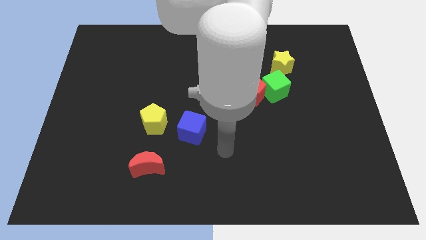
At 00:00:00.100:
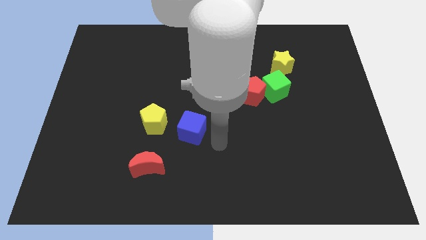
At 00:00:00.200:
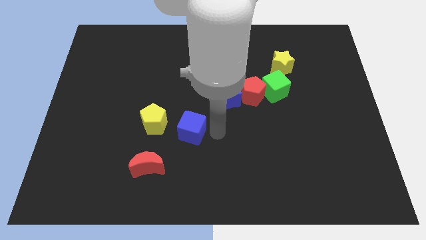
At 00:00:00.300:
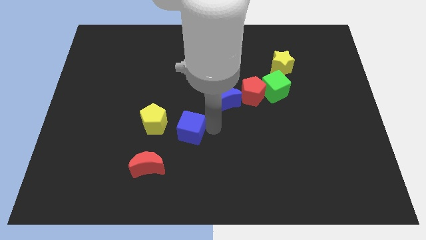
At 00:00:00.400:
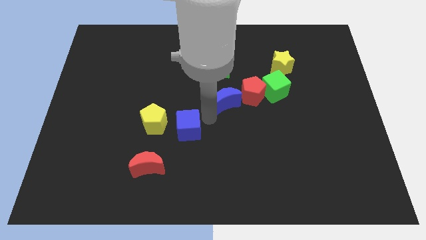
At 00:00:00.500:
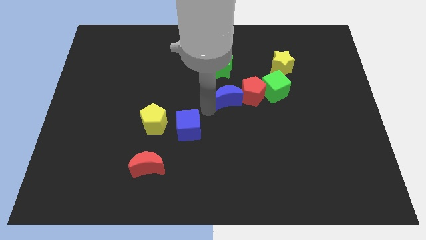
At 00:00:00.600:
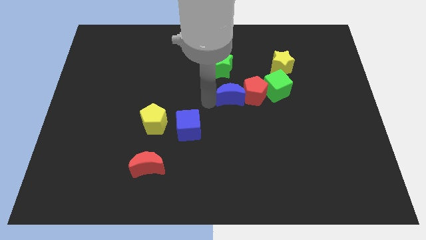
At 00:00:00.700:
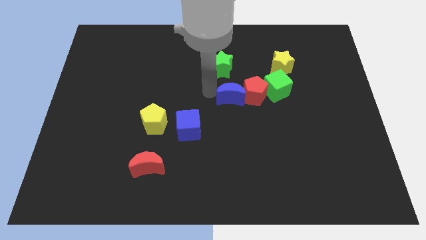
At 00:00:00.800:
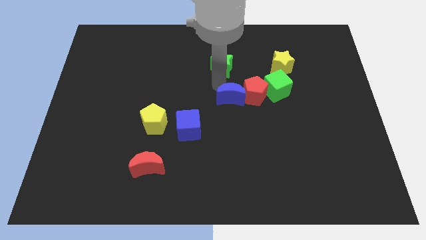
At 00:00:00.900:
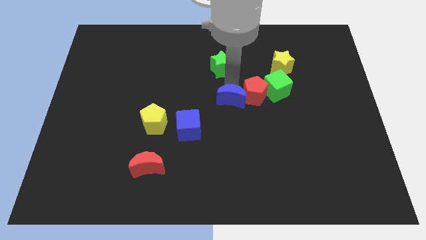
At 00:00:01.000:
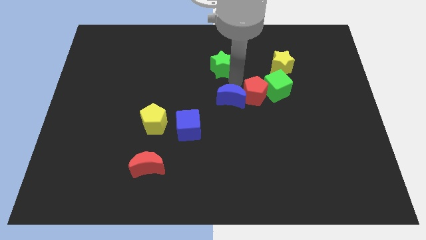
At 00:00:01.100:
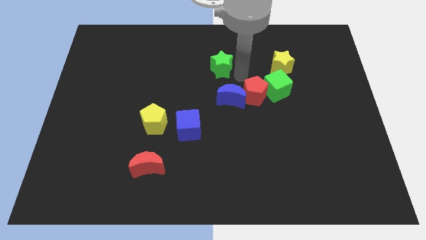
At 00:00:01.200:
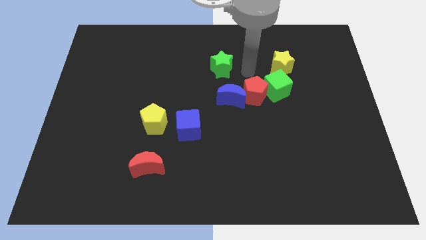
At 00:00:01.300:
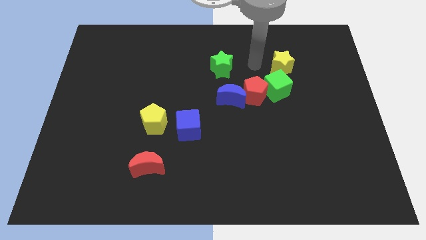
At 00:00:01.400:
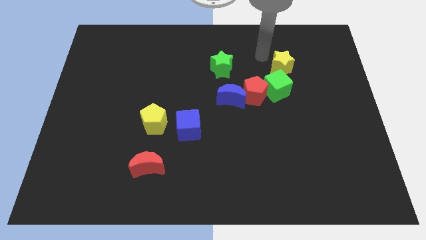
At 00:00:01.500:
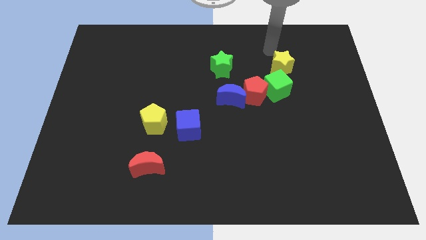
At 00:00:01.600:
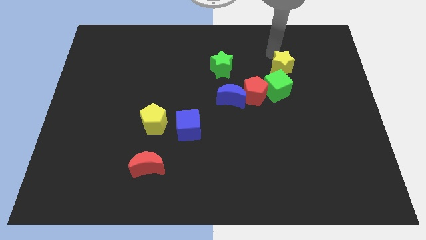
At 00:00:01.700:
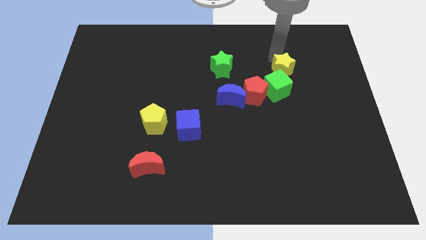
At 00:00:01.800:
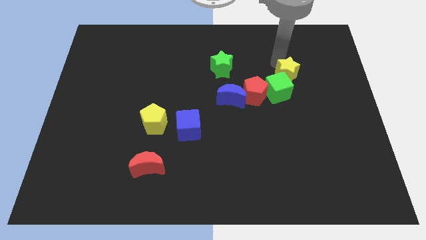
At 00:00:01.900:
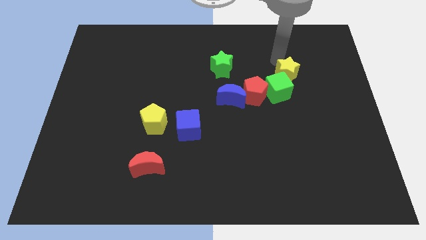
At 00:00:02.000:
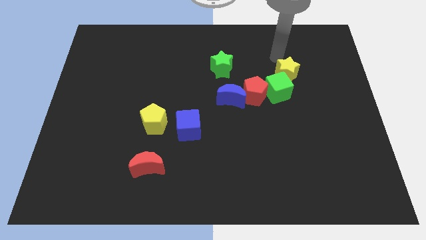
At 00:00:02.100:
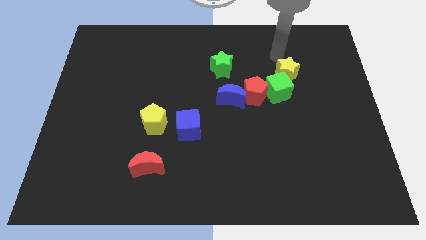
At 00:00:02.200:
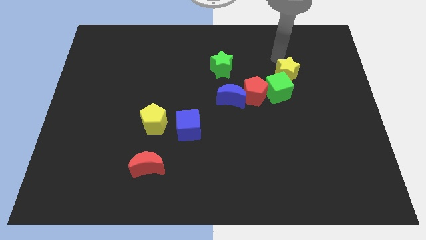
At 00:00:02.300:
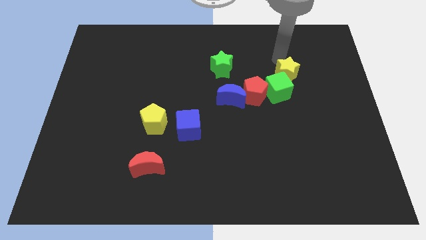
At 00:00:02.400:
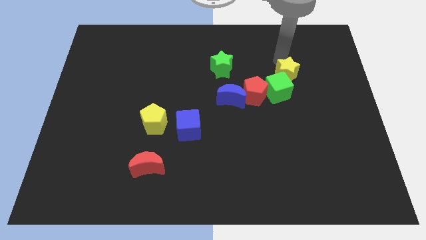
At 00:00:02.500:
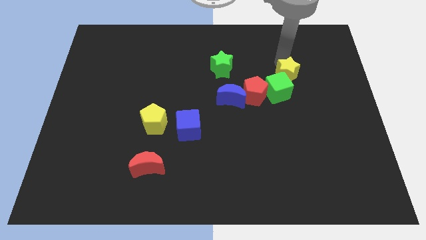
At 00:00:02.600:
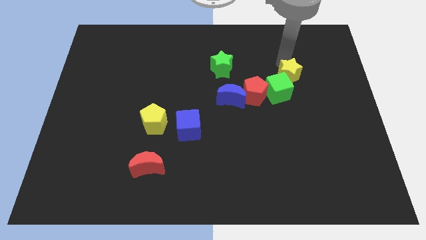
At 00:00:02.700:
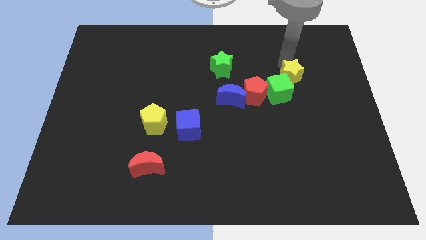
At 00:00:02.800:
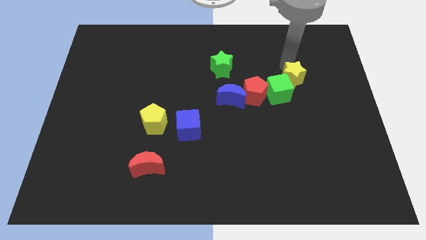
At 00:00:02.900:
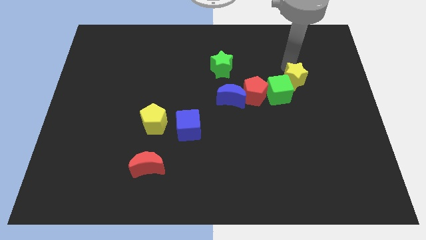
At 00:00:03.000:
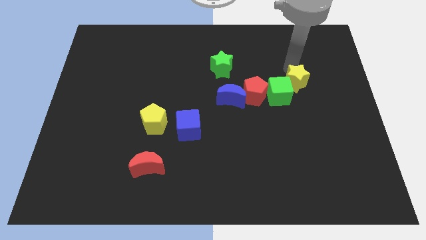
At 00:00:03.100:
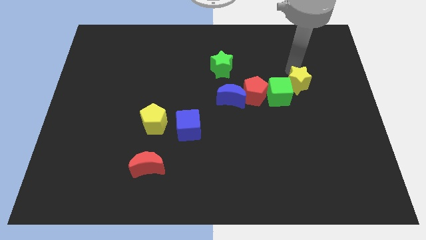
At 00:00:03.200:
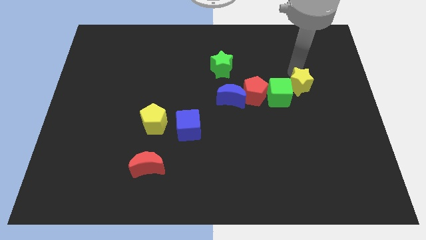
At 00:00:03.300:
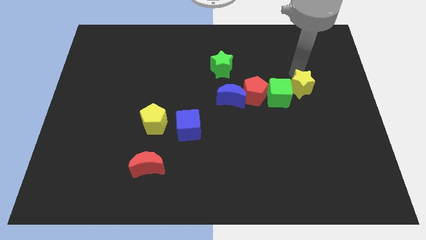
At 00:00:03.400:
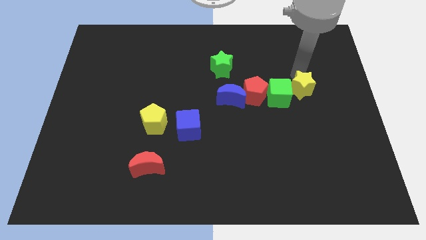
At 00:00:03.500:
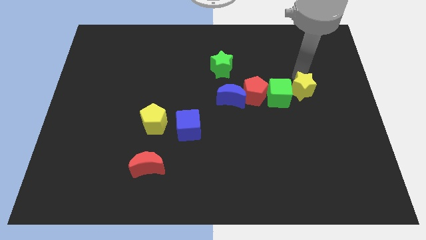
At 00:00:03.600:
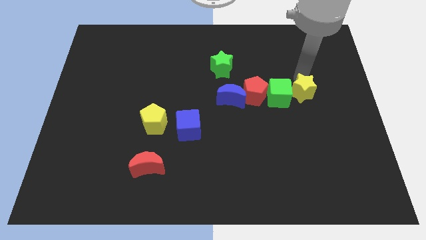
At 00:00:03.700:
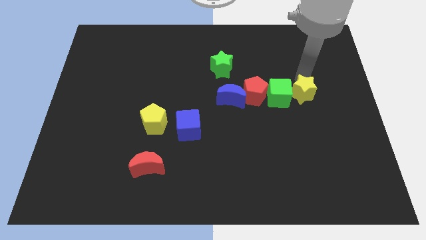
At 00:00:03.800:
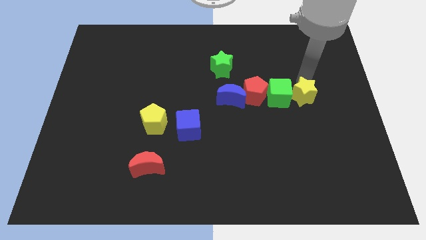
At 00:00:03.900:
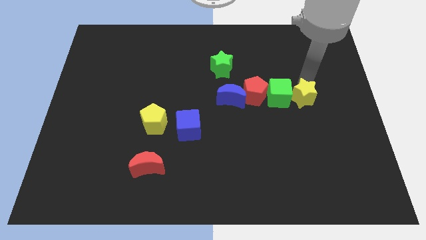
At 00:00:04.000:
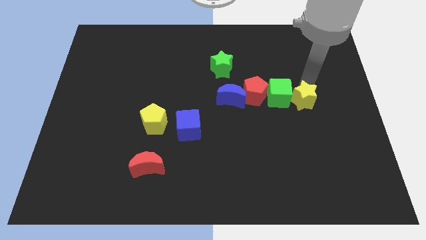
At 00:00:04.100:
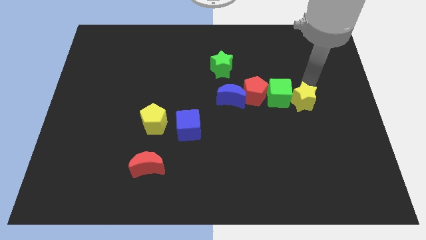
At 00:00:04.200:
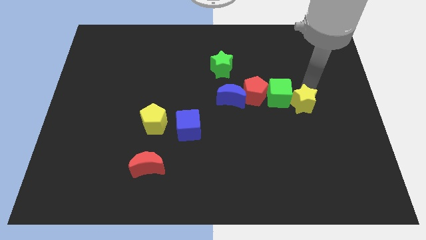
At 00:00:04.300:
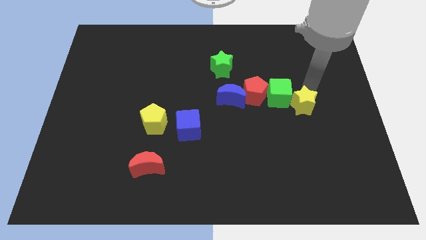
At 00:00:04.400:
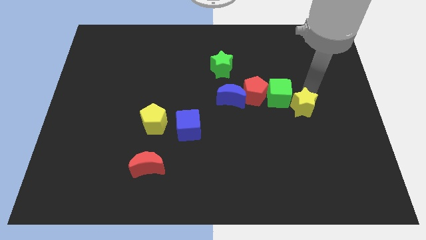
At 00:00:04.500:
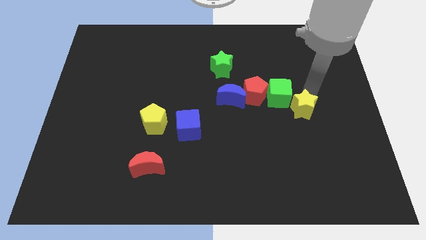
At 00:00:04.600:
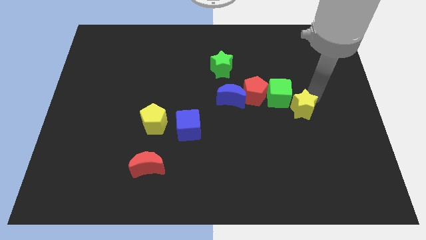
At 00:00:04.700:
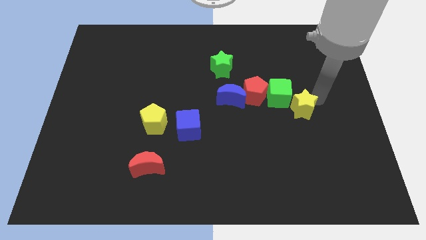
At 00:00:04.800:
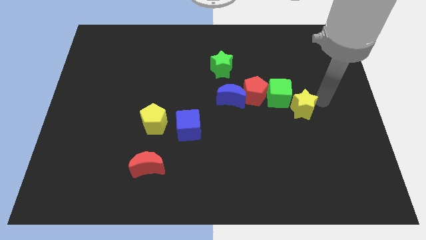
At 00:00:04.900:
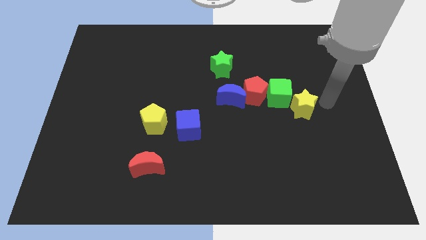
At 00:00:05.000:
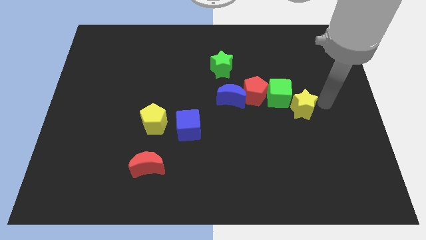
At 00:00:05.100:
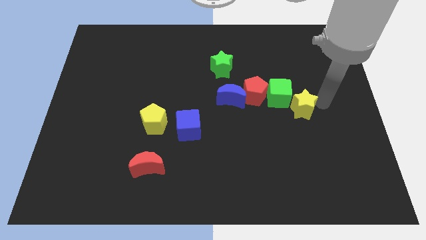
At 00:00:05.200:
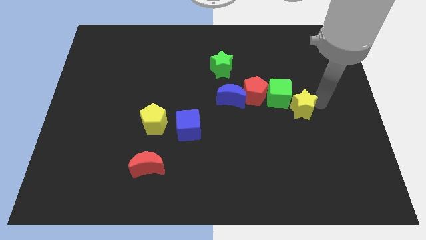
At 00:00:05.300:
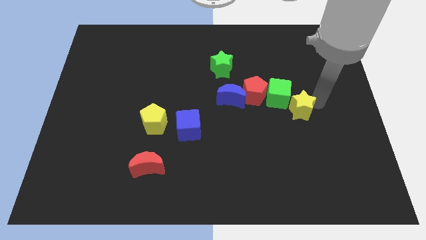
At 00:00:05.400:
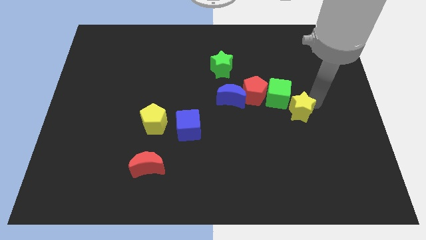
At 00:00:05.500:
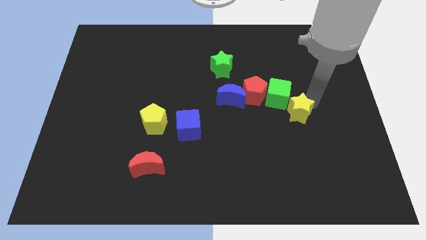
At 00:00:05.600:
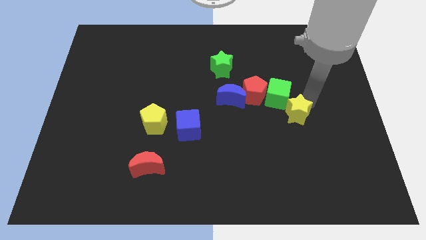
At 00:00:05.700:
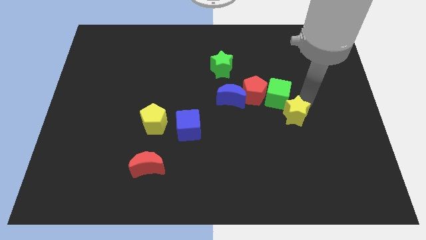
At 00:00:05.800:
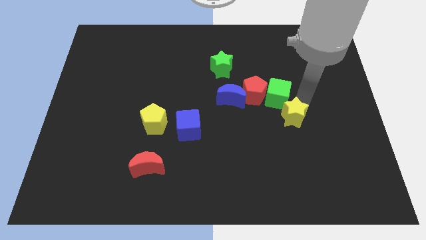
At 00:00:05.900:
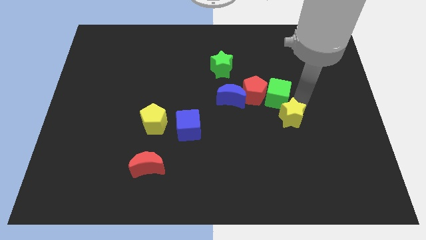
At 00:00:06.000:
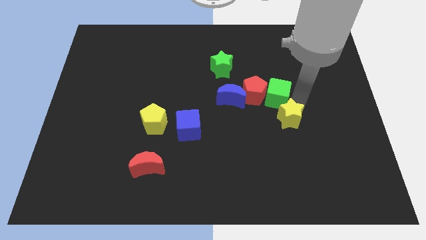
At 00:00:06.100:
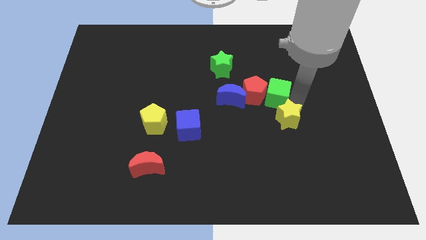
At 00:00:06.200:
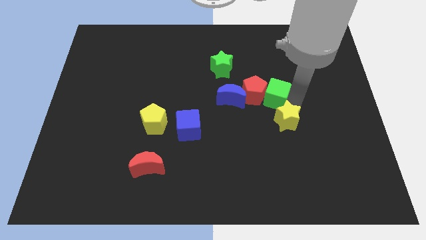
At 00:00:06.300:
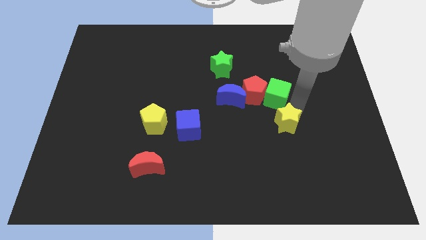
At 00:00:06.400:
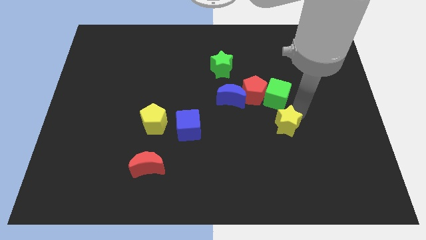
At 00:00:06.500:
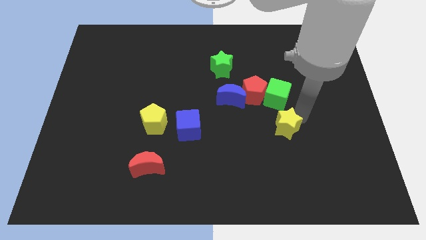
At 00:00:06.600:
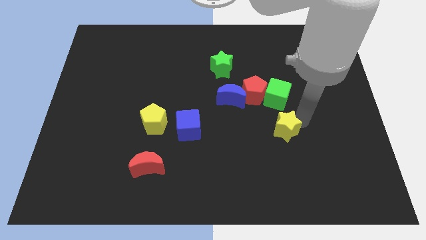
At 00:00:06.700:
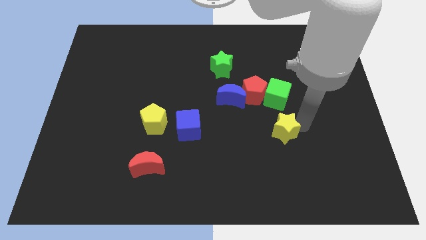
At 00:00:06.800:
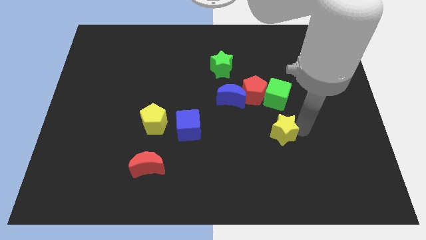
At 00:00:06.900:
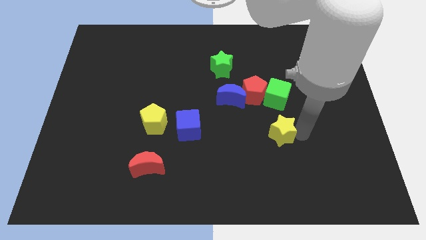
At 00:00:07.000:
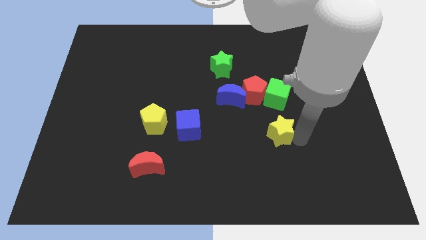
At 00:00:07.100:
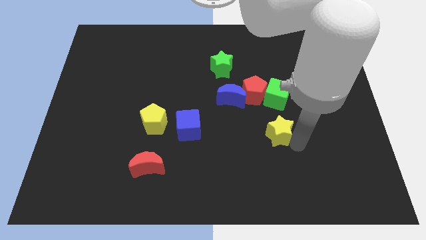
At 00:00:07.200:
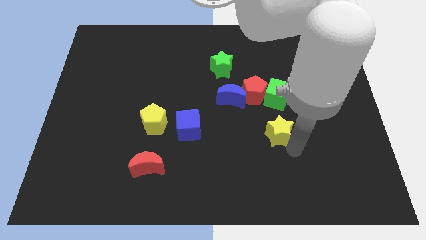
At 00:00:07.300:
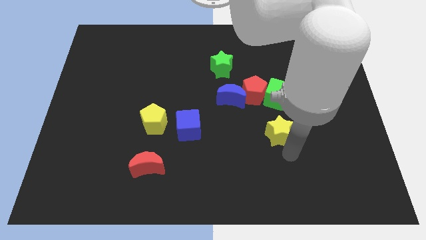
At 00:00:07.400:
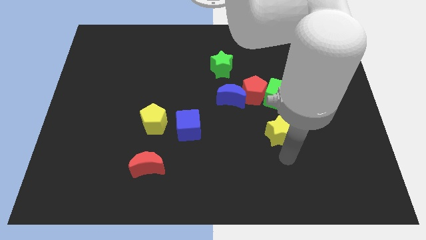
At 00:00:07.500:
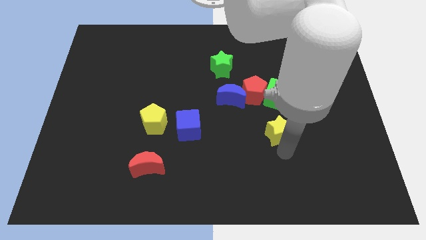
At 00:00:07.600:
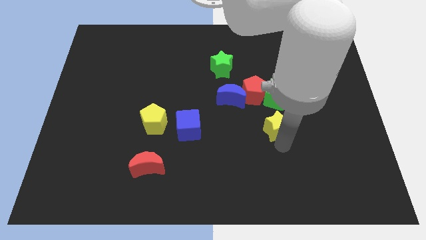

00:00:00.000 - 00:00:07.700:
slide the yellow star diagonally down and to the right of the blue moon

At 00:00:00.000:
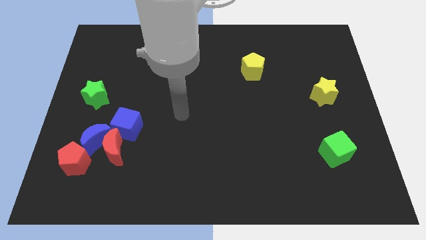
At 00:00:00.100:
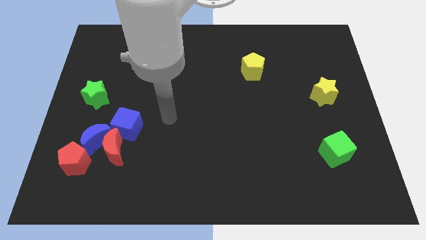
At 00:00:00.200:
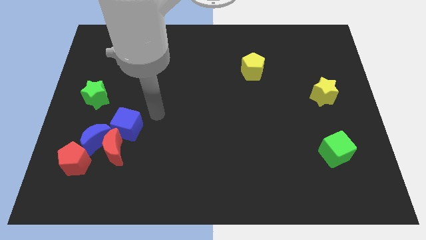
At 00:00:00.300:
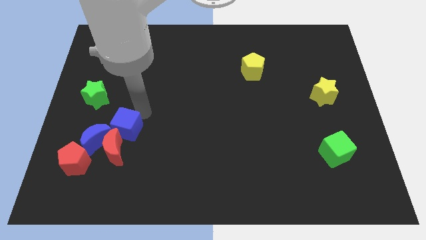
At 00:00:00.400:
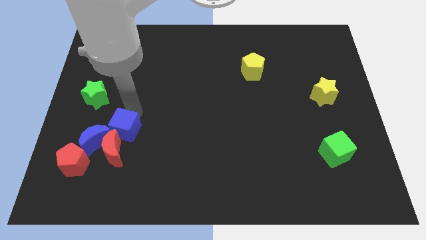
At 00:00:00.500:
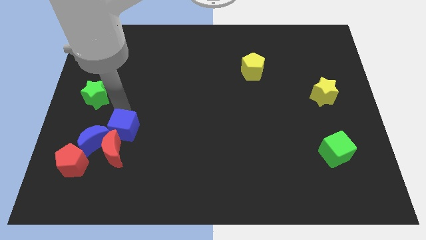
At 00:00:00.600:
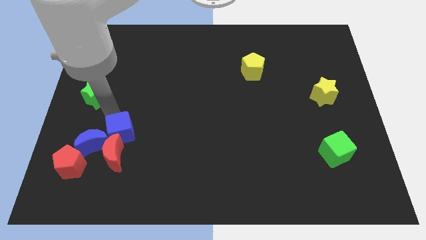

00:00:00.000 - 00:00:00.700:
slide the red moon to the bottom right of the blue cube
